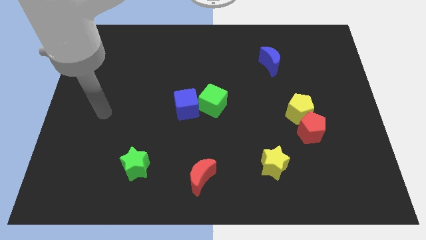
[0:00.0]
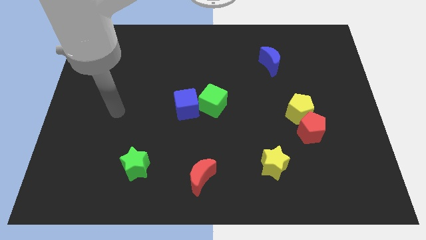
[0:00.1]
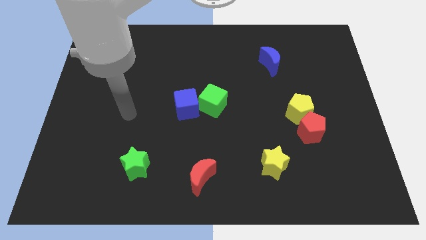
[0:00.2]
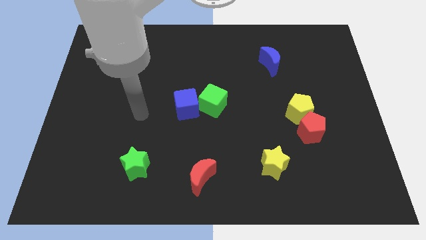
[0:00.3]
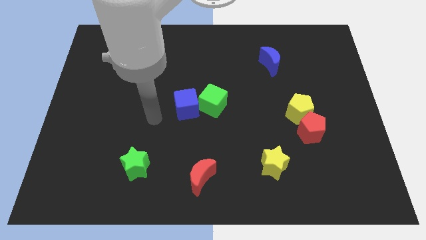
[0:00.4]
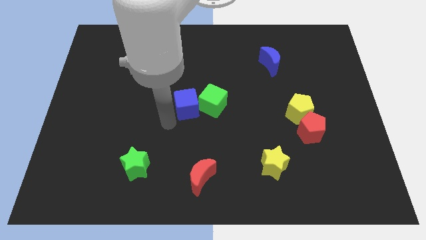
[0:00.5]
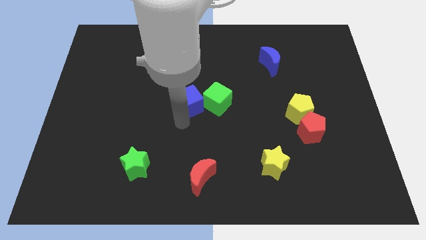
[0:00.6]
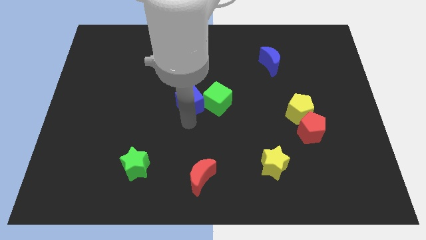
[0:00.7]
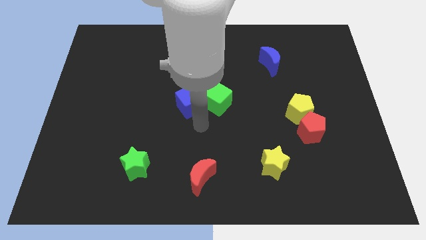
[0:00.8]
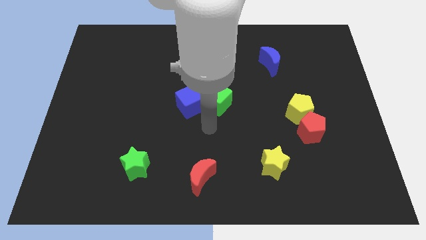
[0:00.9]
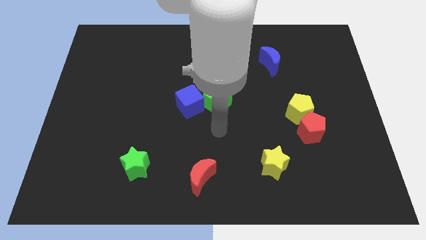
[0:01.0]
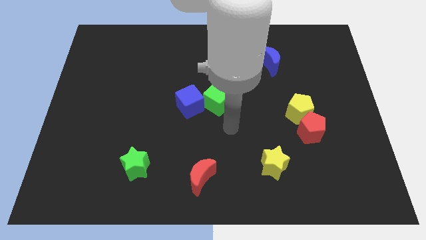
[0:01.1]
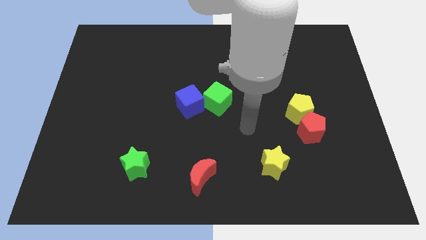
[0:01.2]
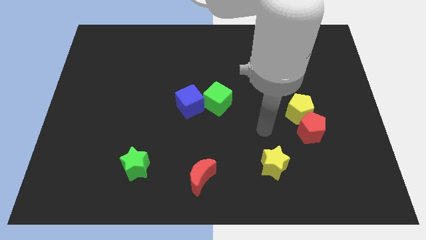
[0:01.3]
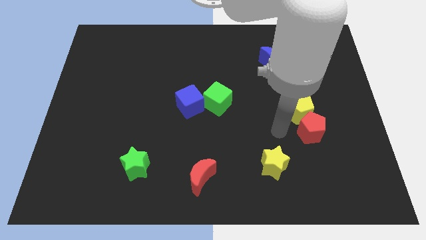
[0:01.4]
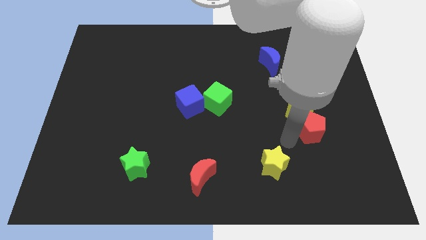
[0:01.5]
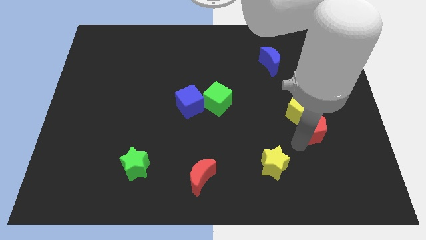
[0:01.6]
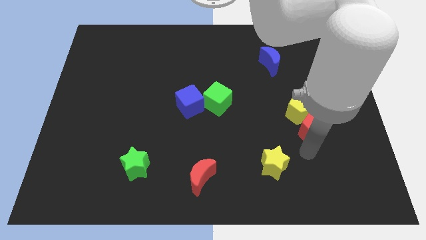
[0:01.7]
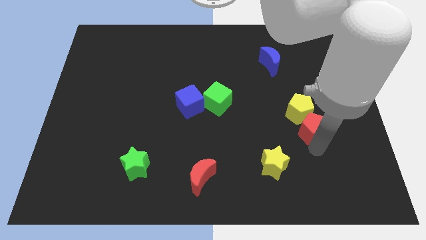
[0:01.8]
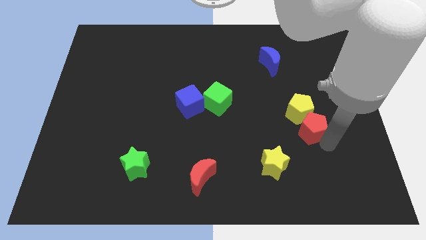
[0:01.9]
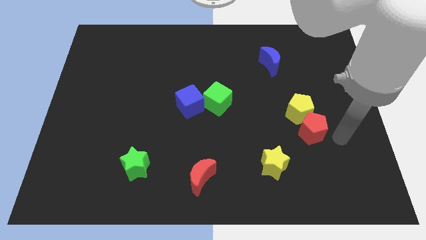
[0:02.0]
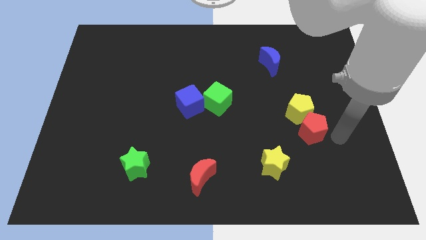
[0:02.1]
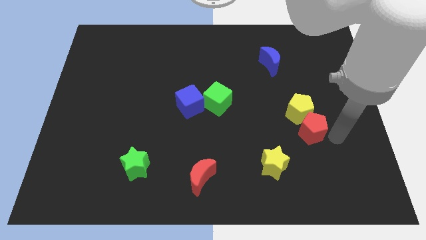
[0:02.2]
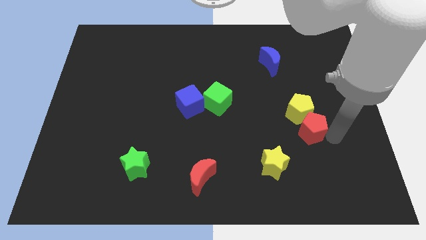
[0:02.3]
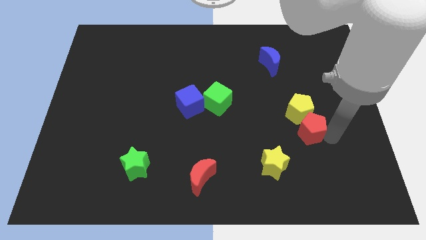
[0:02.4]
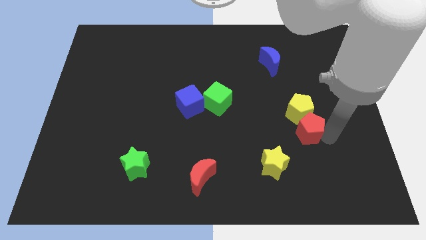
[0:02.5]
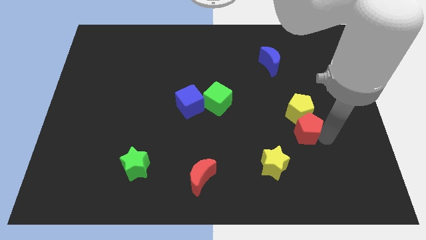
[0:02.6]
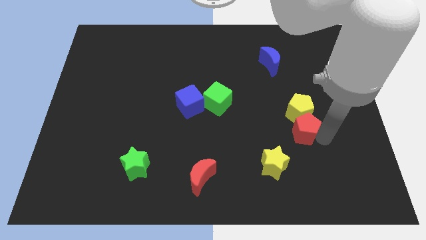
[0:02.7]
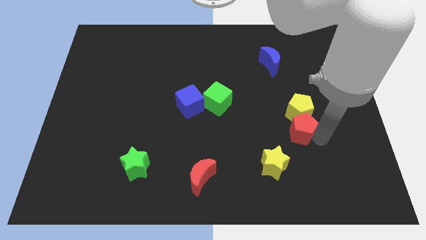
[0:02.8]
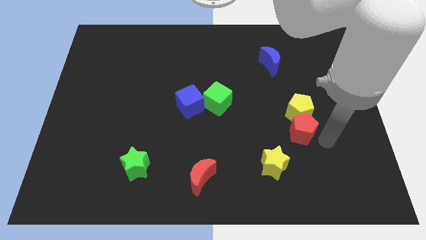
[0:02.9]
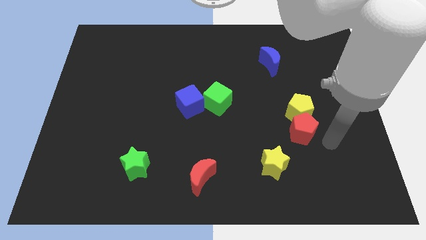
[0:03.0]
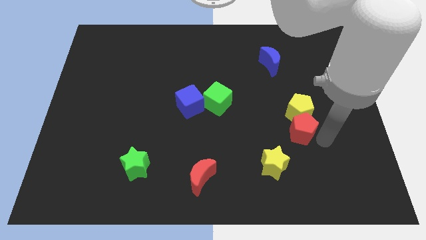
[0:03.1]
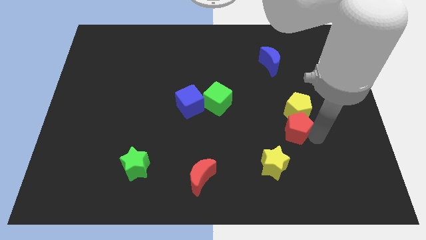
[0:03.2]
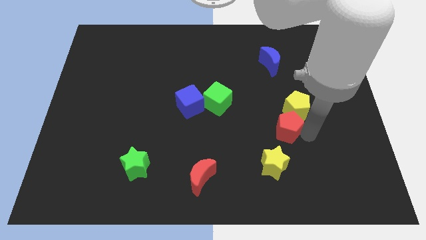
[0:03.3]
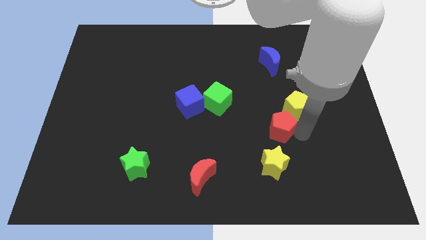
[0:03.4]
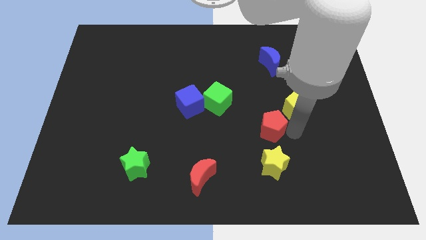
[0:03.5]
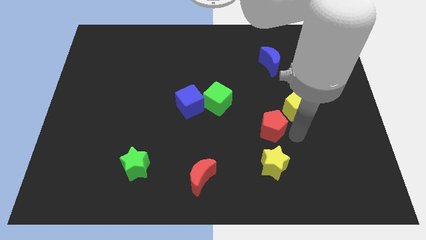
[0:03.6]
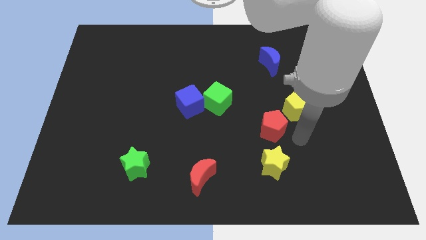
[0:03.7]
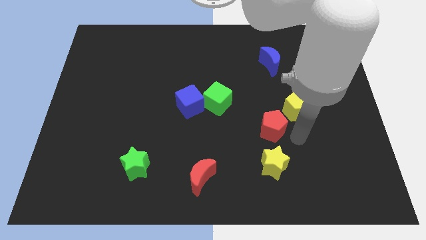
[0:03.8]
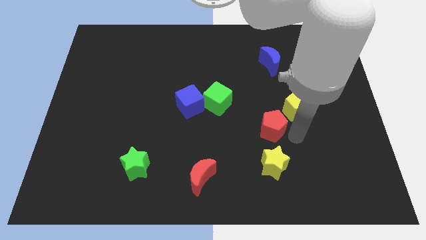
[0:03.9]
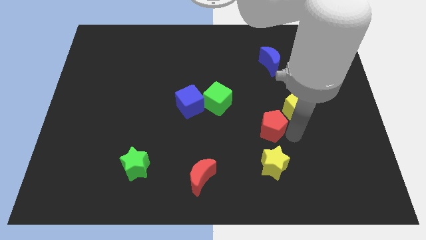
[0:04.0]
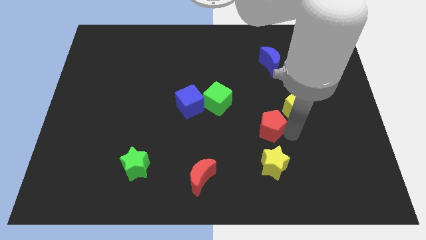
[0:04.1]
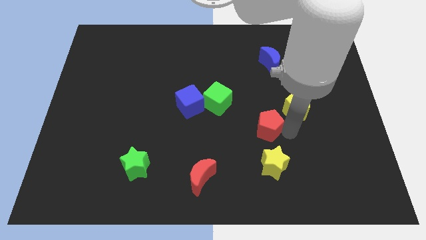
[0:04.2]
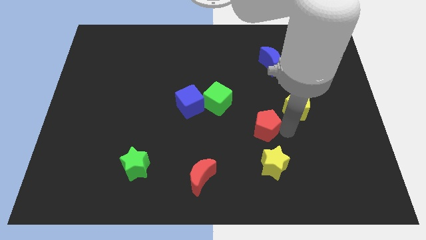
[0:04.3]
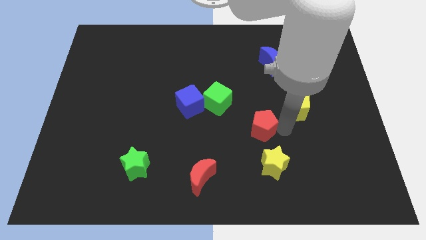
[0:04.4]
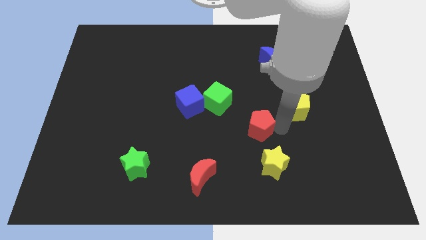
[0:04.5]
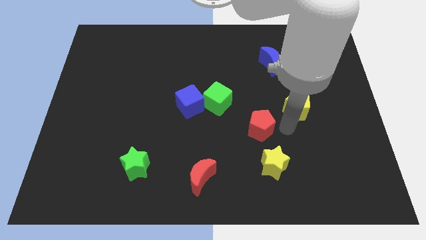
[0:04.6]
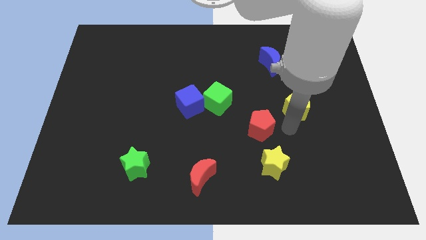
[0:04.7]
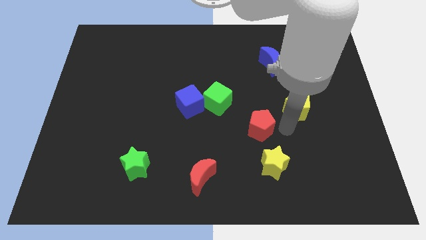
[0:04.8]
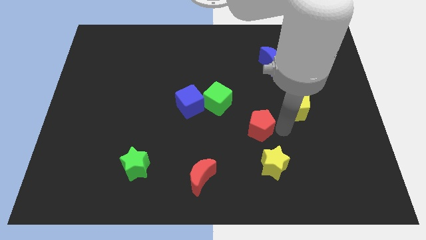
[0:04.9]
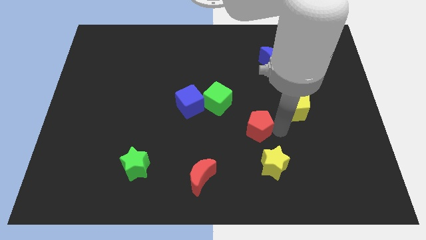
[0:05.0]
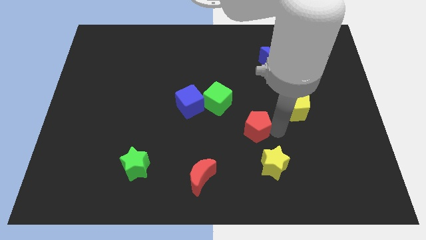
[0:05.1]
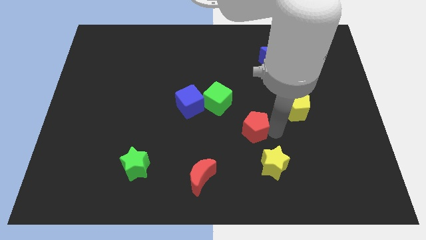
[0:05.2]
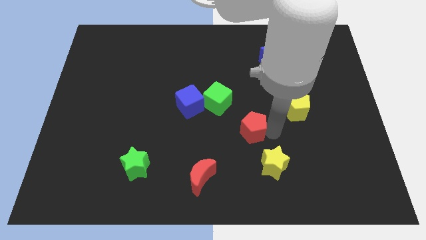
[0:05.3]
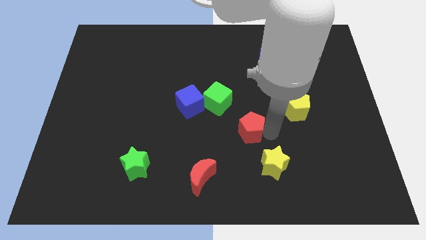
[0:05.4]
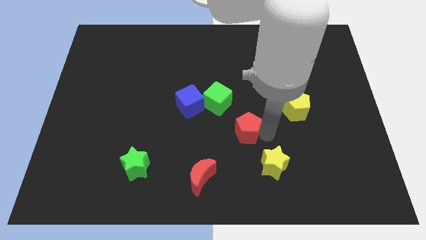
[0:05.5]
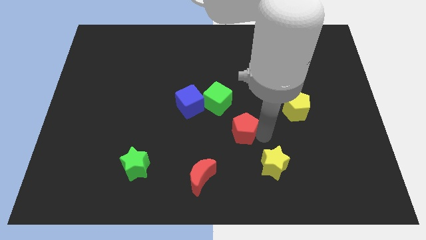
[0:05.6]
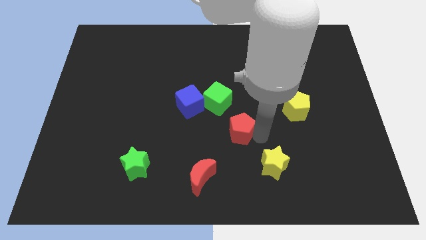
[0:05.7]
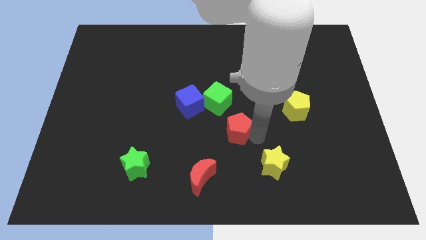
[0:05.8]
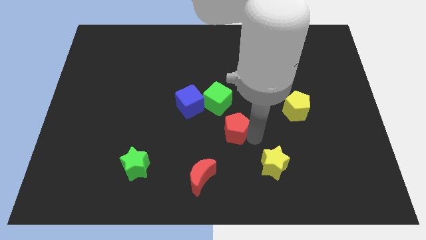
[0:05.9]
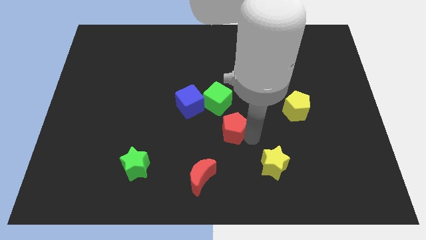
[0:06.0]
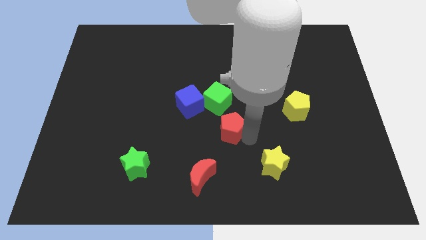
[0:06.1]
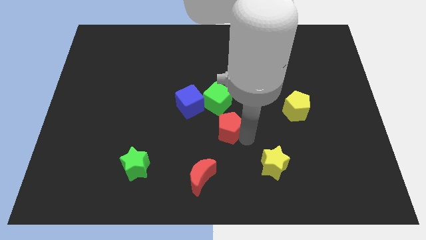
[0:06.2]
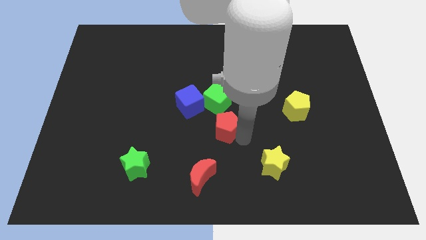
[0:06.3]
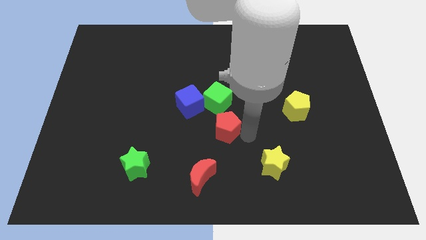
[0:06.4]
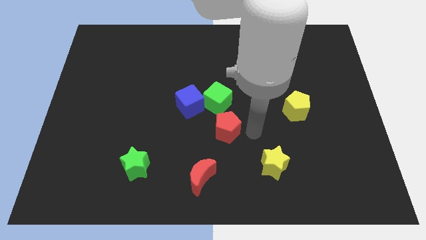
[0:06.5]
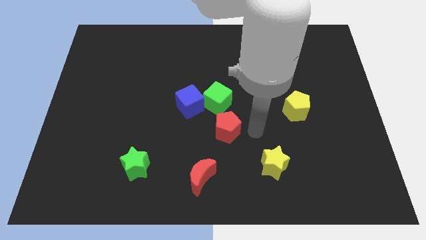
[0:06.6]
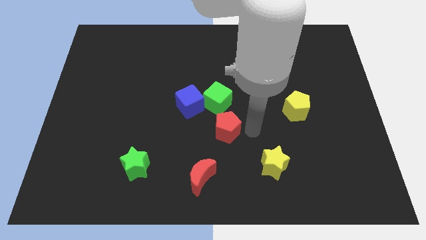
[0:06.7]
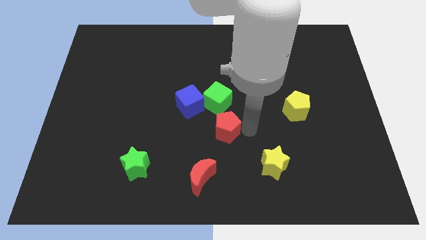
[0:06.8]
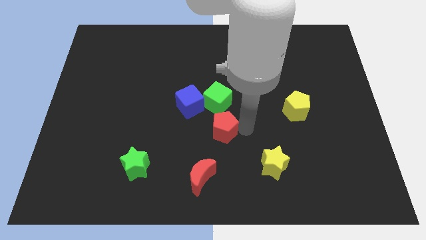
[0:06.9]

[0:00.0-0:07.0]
move the red pentagon left

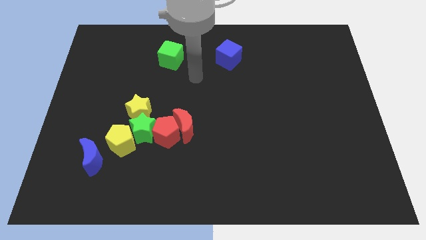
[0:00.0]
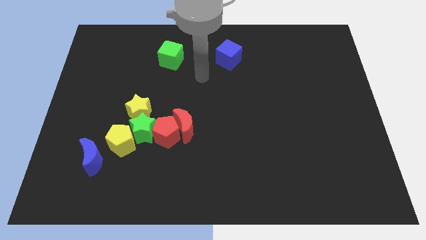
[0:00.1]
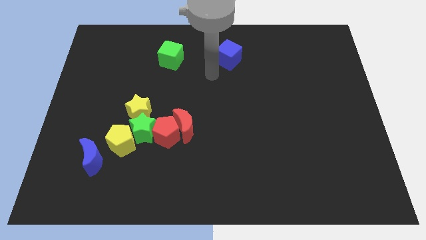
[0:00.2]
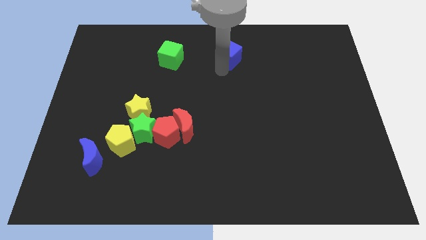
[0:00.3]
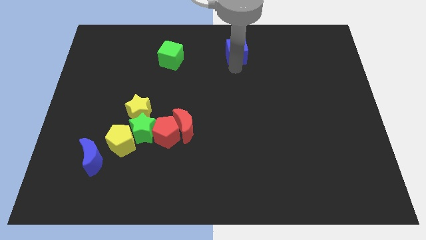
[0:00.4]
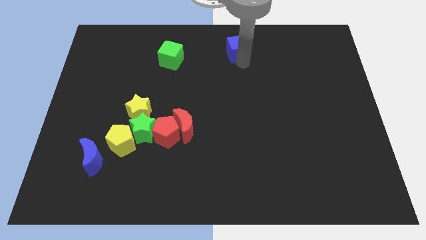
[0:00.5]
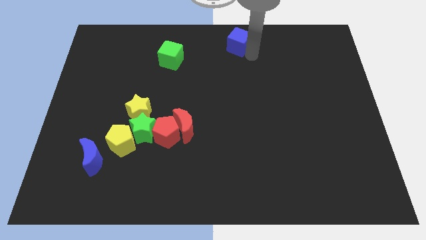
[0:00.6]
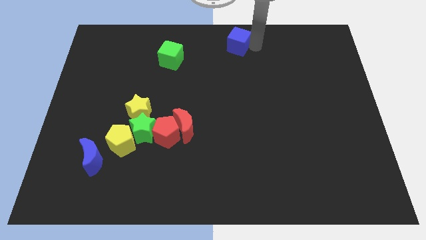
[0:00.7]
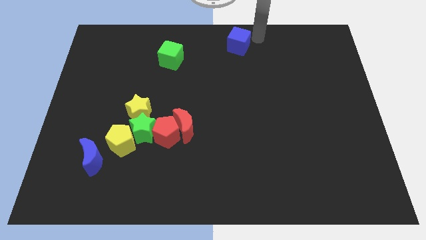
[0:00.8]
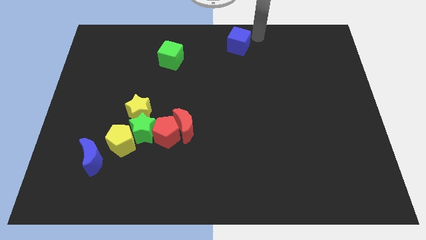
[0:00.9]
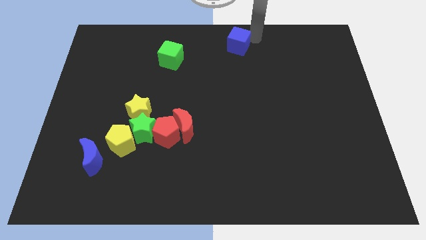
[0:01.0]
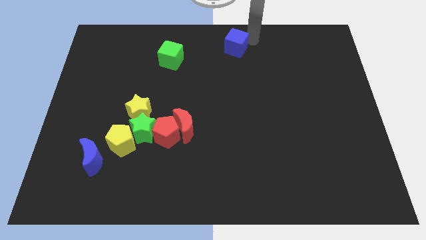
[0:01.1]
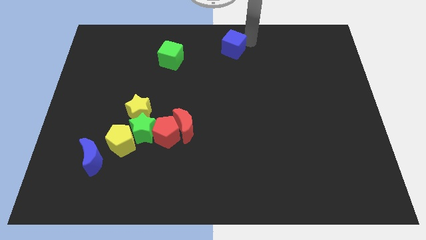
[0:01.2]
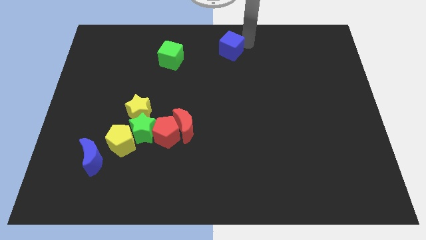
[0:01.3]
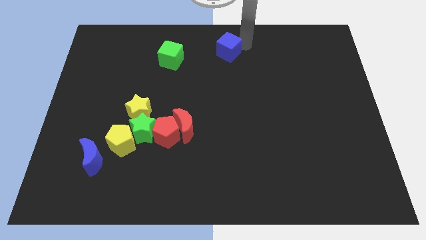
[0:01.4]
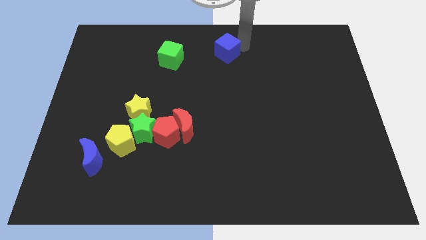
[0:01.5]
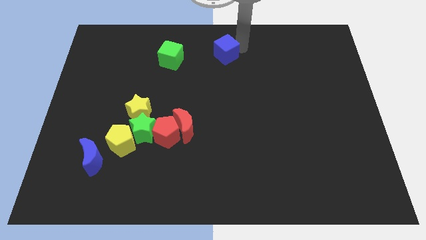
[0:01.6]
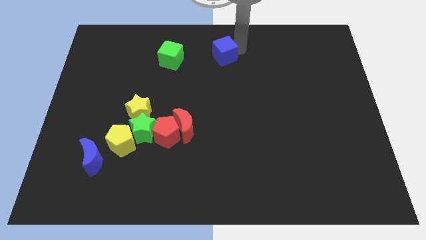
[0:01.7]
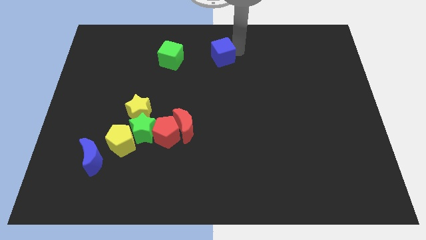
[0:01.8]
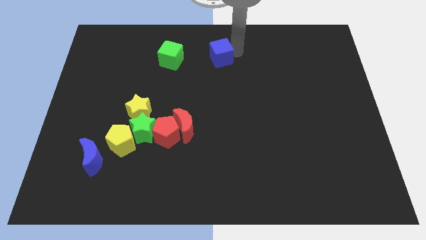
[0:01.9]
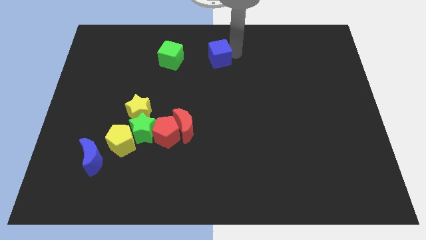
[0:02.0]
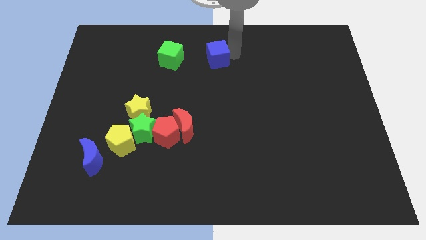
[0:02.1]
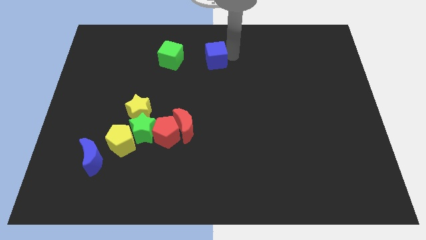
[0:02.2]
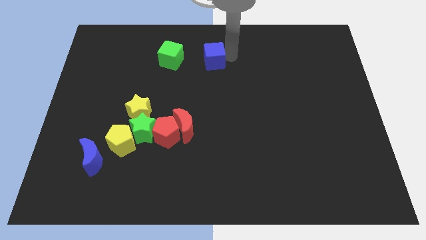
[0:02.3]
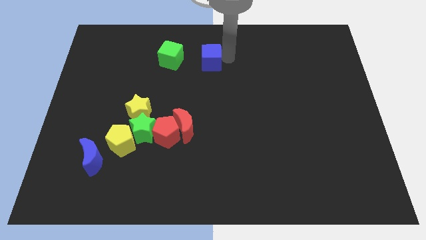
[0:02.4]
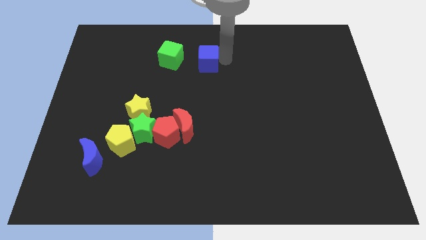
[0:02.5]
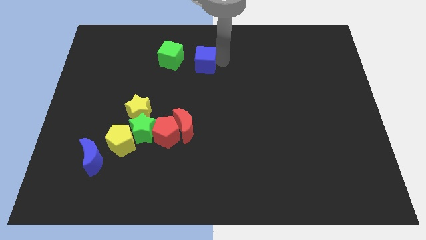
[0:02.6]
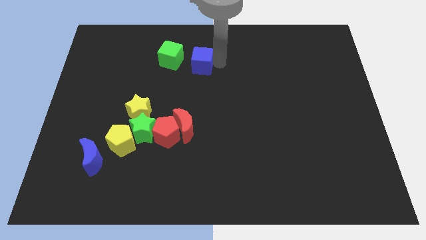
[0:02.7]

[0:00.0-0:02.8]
slide the blue cube a little bit left
